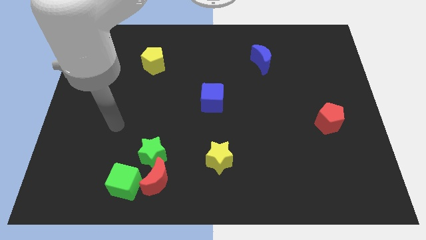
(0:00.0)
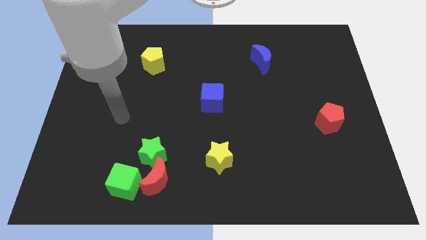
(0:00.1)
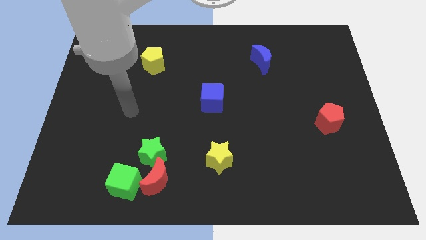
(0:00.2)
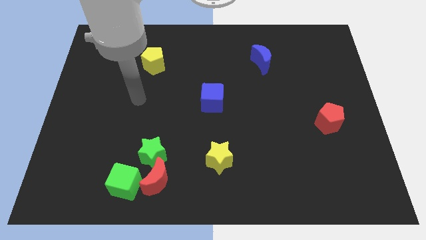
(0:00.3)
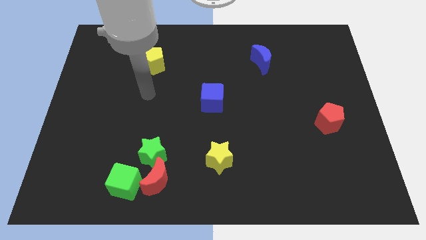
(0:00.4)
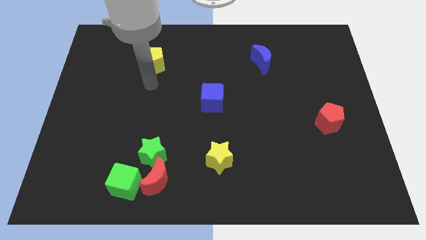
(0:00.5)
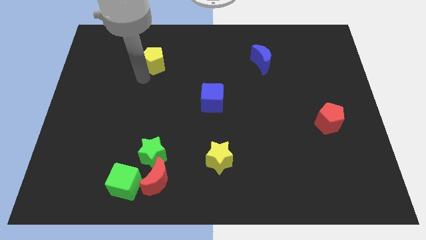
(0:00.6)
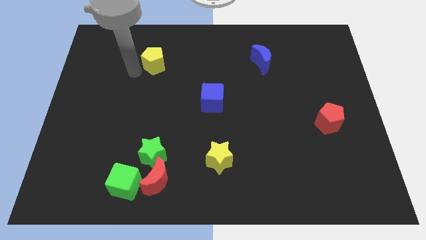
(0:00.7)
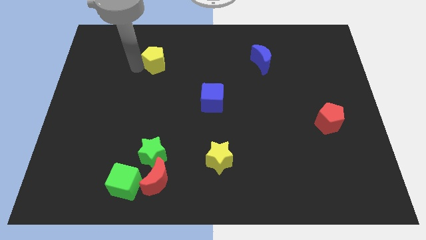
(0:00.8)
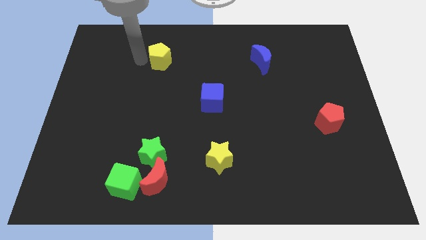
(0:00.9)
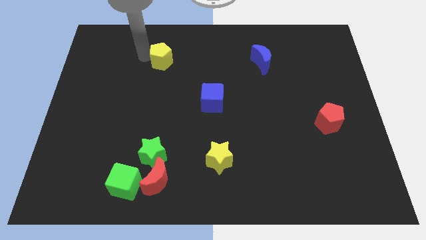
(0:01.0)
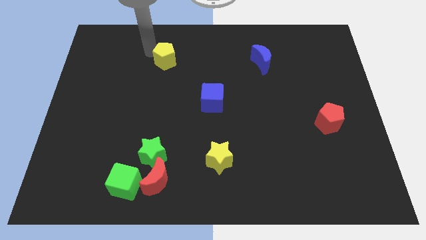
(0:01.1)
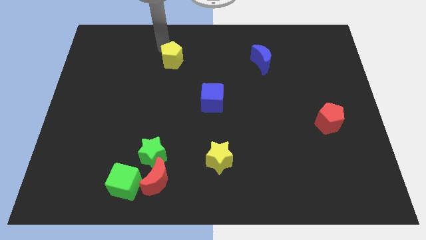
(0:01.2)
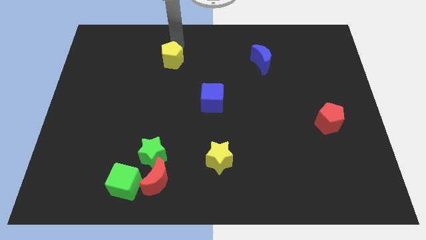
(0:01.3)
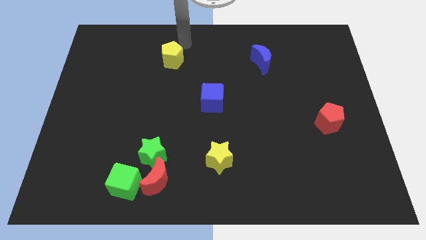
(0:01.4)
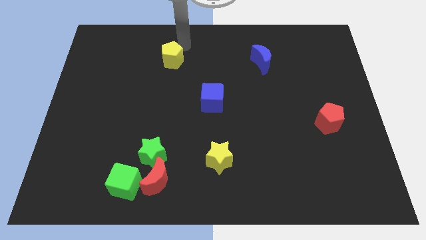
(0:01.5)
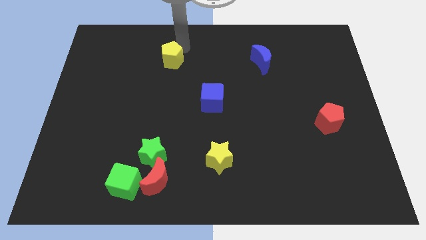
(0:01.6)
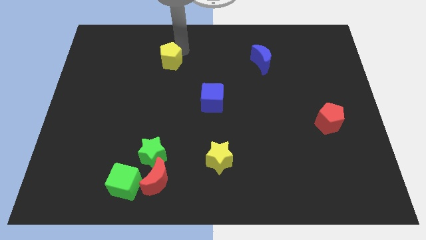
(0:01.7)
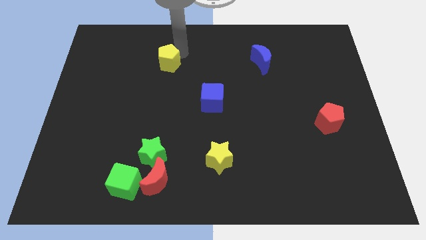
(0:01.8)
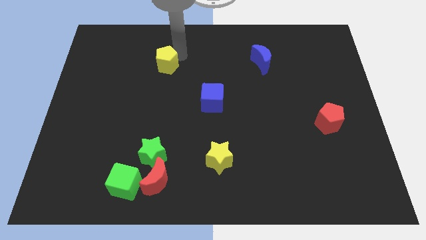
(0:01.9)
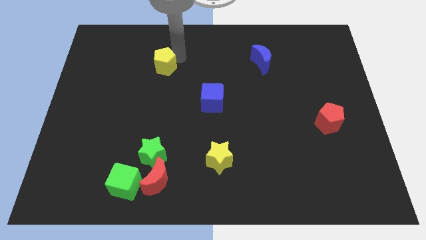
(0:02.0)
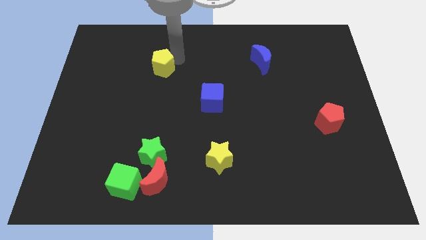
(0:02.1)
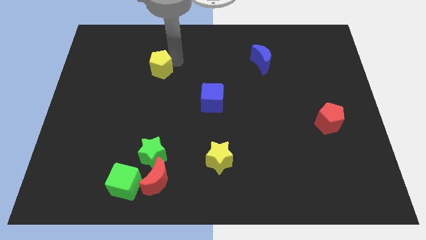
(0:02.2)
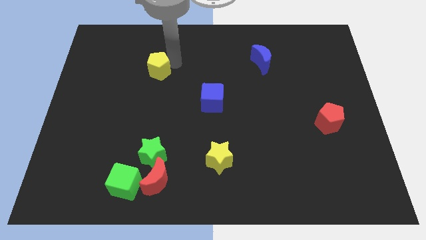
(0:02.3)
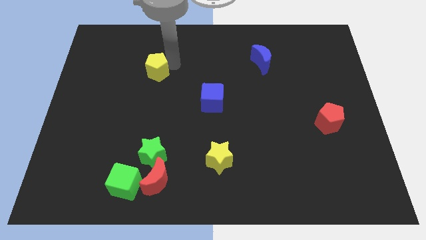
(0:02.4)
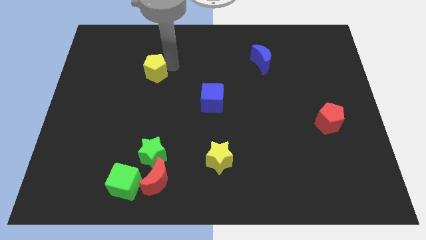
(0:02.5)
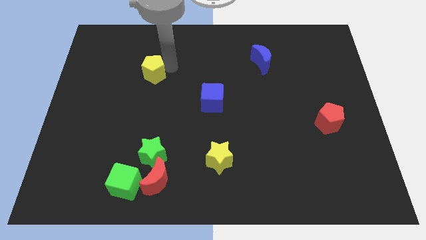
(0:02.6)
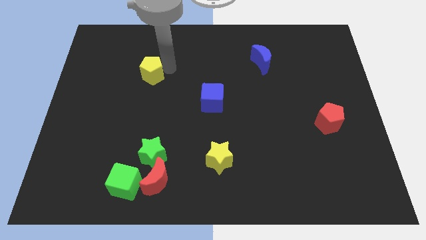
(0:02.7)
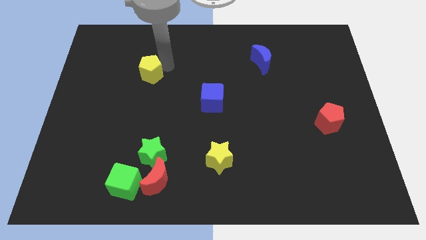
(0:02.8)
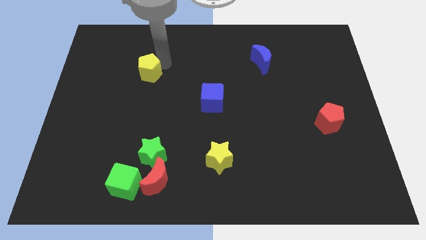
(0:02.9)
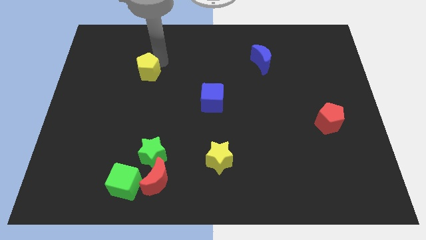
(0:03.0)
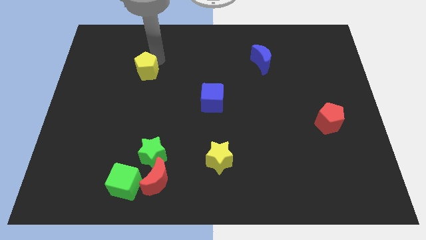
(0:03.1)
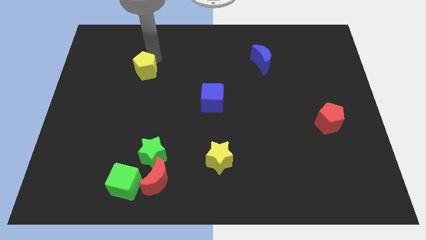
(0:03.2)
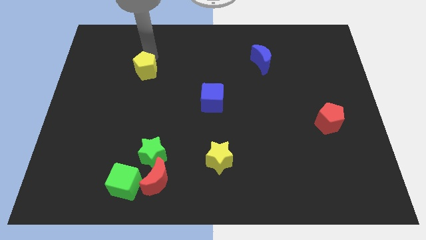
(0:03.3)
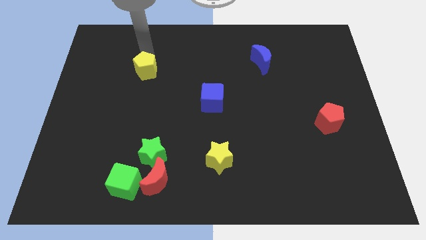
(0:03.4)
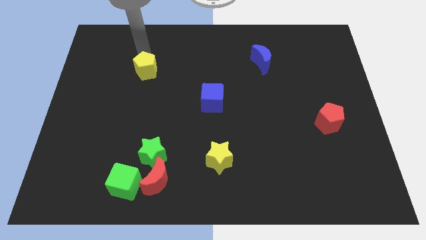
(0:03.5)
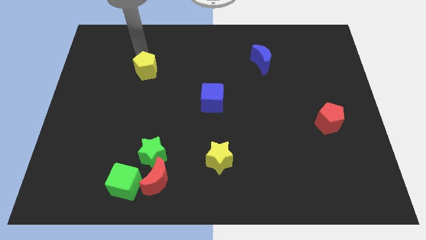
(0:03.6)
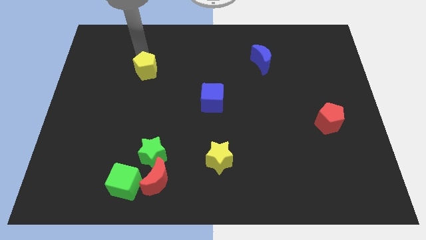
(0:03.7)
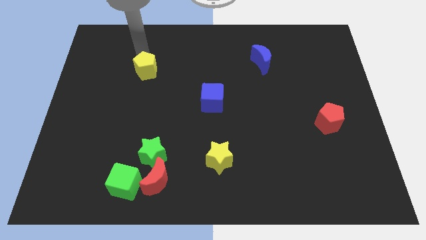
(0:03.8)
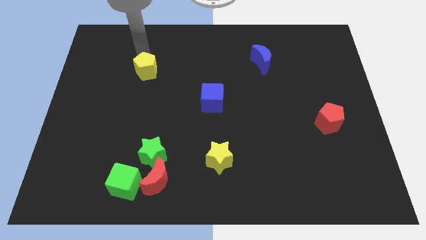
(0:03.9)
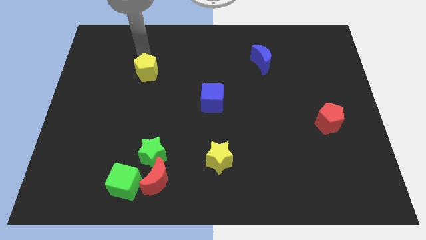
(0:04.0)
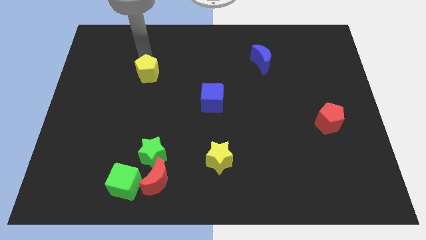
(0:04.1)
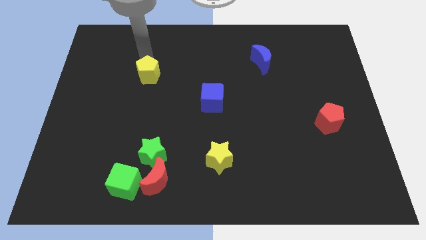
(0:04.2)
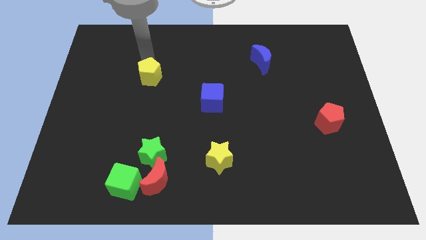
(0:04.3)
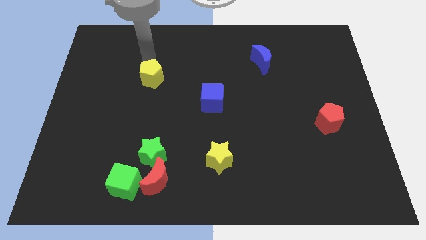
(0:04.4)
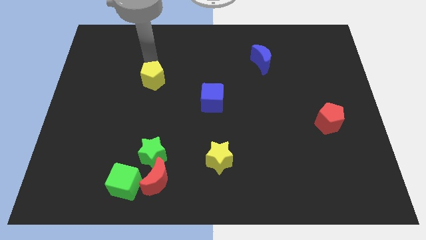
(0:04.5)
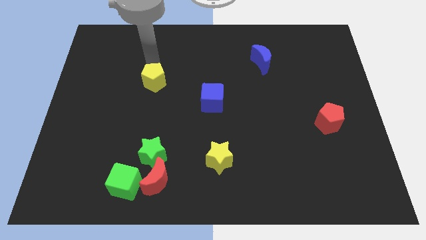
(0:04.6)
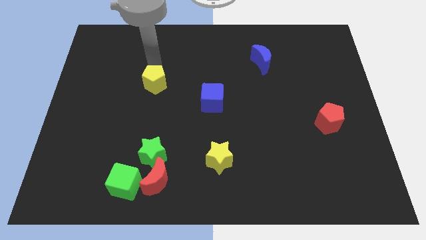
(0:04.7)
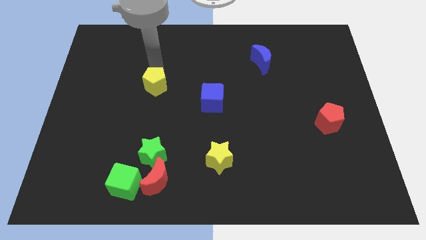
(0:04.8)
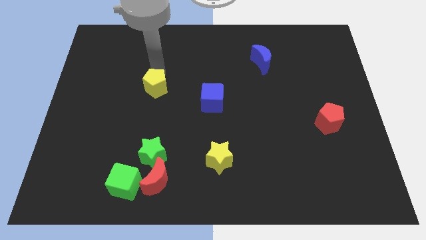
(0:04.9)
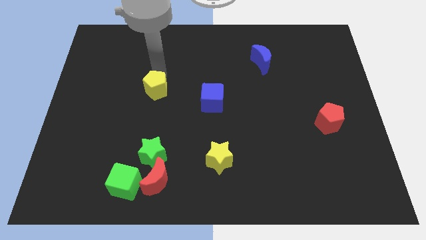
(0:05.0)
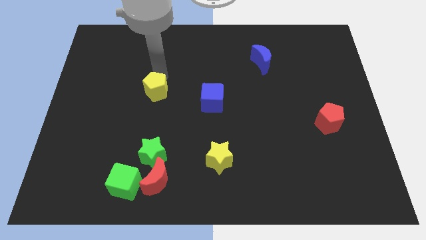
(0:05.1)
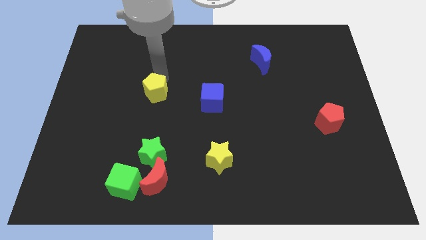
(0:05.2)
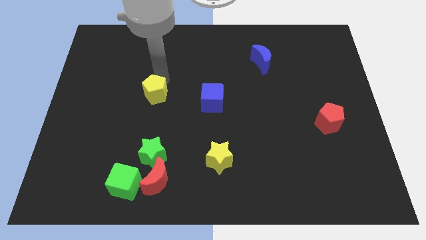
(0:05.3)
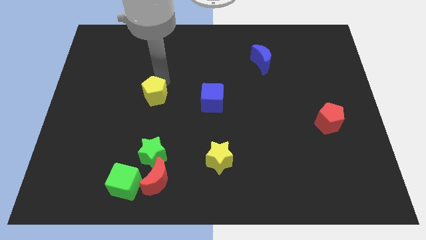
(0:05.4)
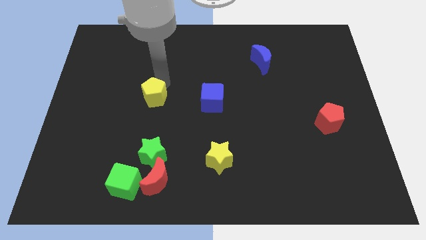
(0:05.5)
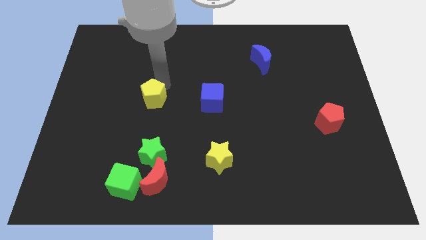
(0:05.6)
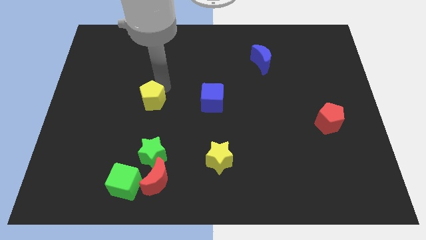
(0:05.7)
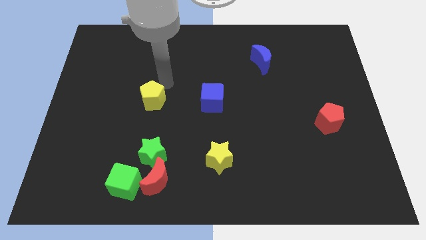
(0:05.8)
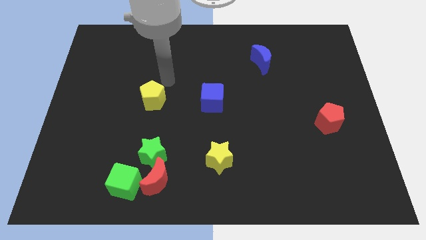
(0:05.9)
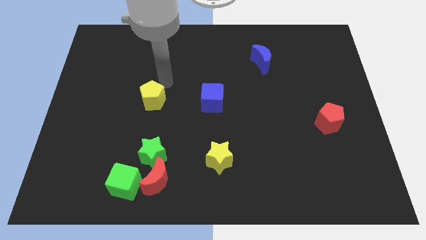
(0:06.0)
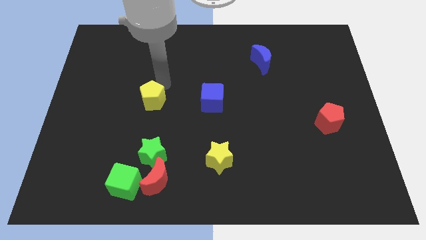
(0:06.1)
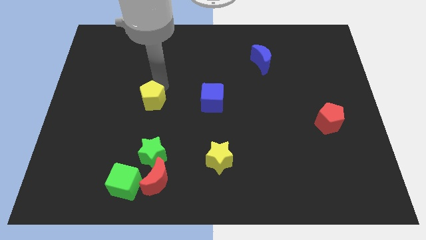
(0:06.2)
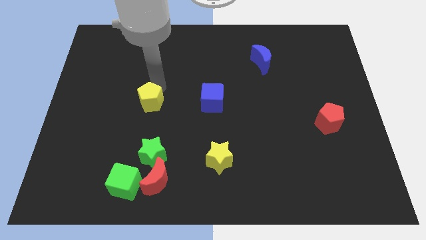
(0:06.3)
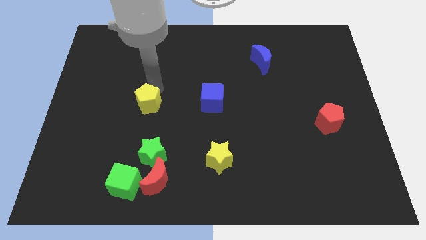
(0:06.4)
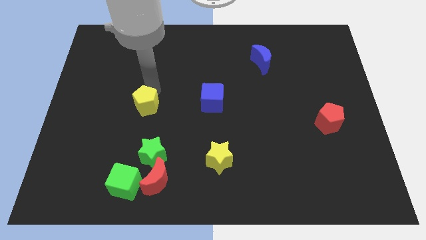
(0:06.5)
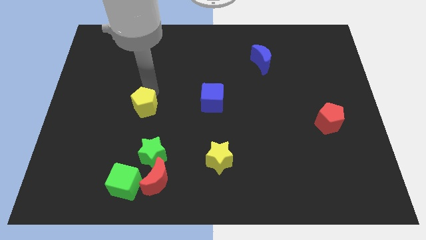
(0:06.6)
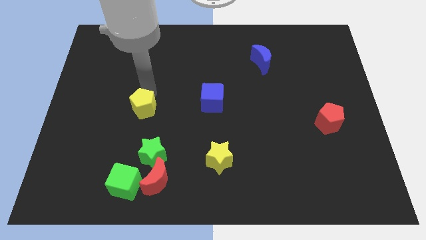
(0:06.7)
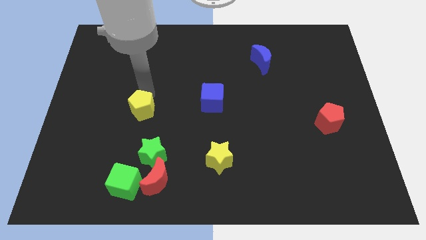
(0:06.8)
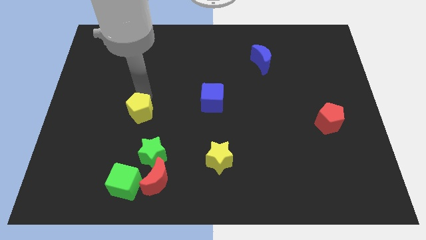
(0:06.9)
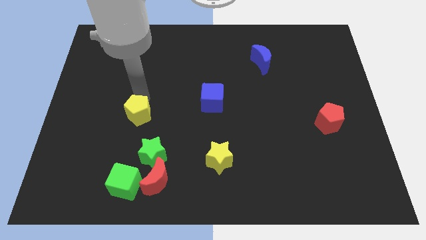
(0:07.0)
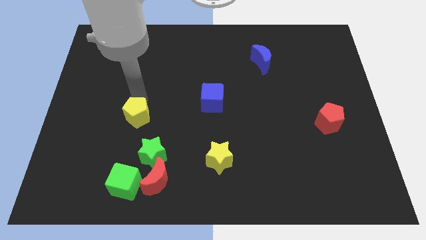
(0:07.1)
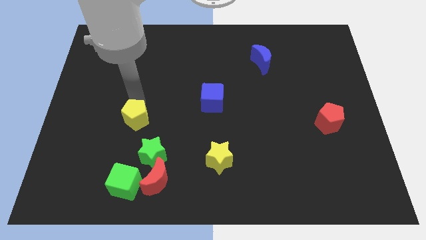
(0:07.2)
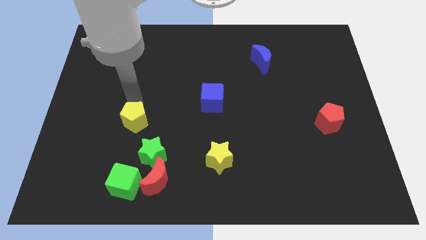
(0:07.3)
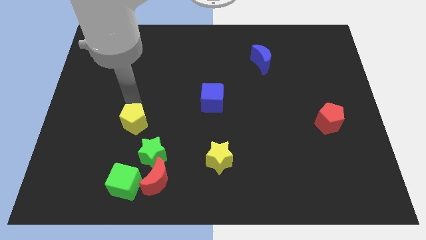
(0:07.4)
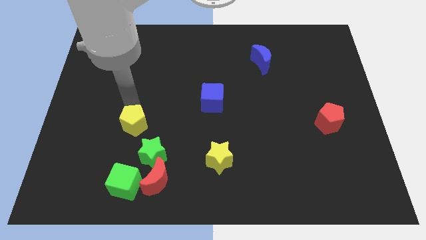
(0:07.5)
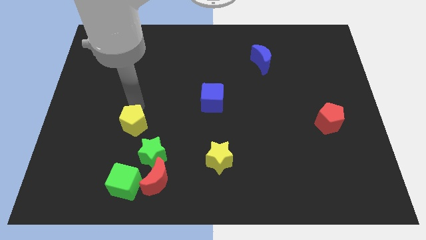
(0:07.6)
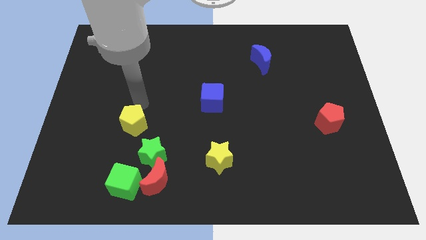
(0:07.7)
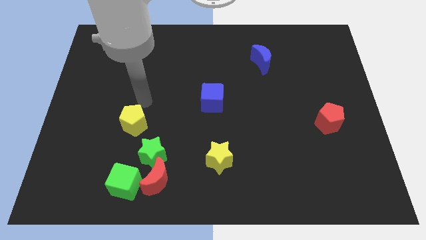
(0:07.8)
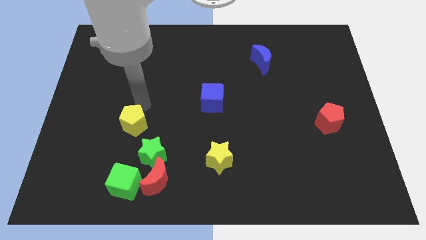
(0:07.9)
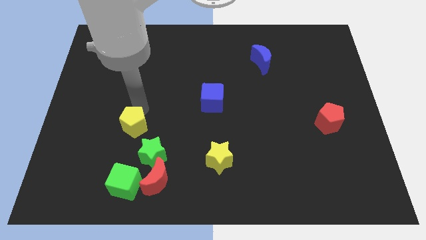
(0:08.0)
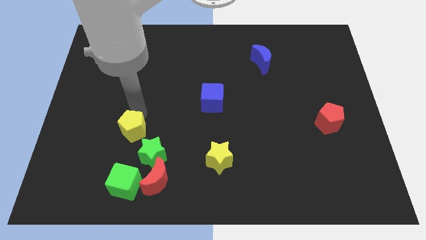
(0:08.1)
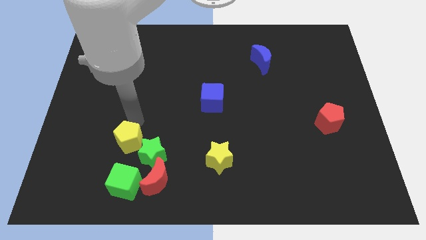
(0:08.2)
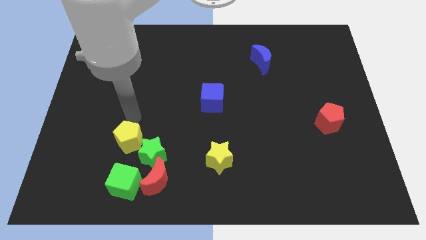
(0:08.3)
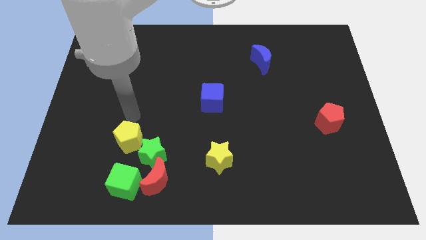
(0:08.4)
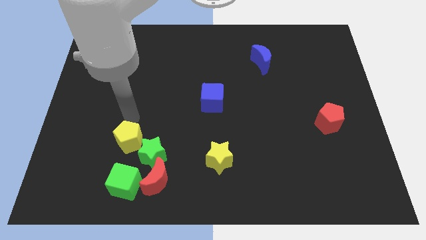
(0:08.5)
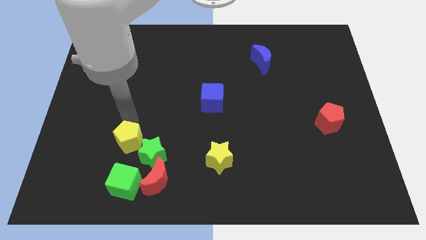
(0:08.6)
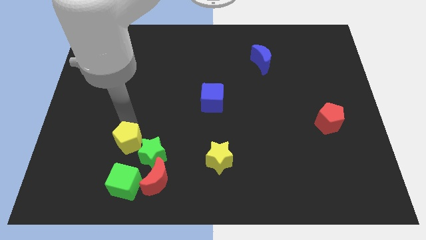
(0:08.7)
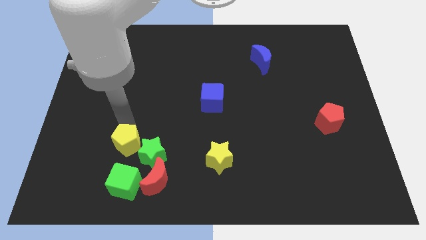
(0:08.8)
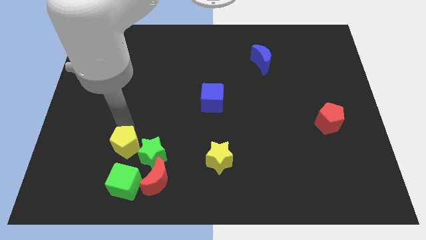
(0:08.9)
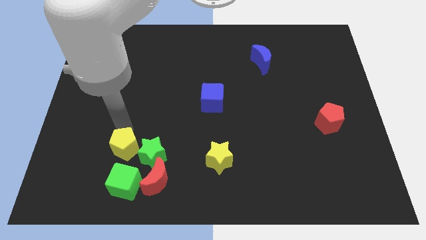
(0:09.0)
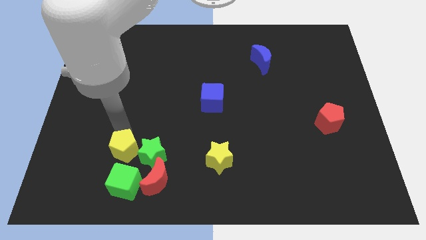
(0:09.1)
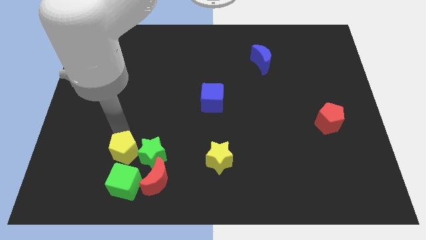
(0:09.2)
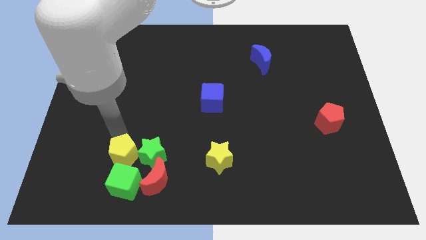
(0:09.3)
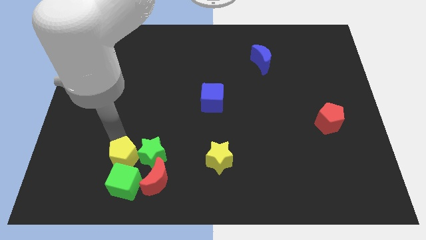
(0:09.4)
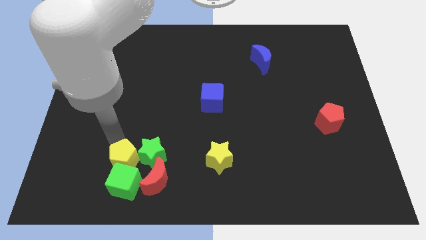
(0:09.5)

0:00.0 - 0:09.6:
slide the yellow pentagon next to the green cube
